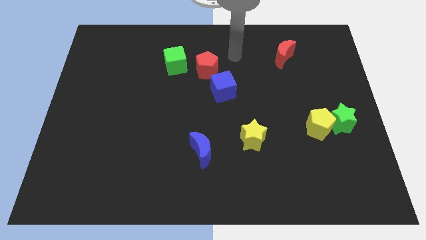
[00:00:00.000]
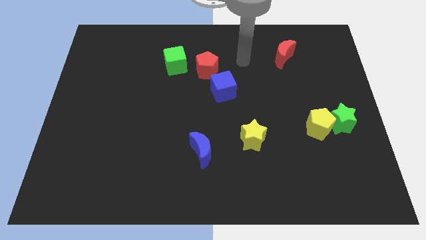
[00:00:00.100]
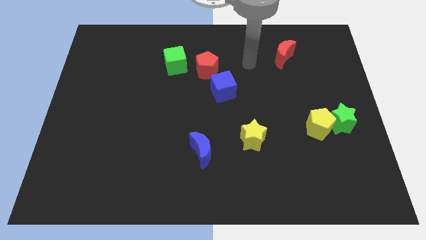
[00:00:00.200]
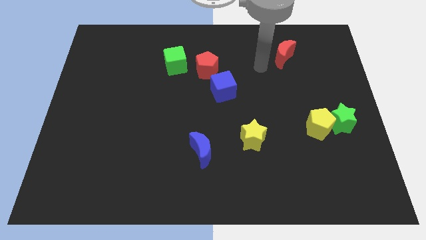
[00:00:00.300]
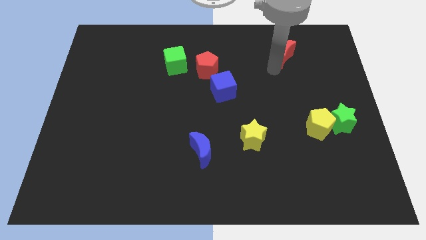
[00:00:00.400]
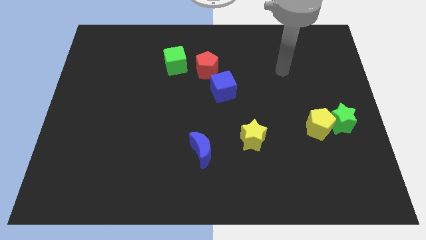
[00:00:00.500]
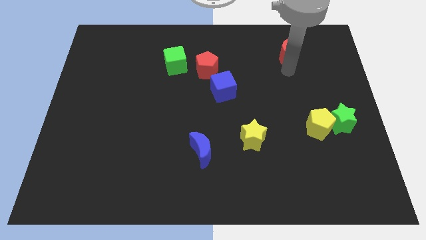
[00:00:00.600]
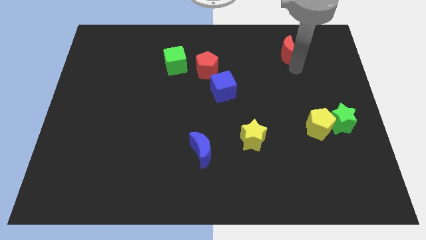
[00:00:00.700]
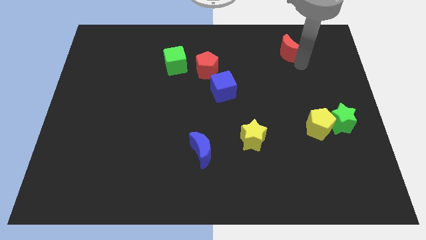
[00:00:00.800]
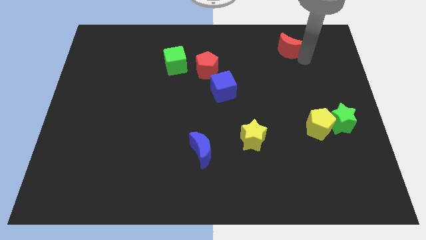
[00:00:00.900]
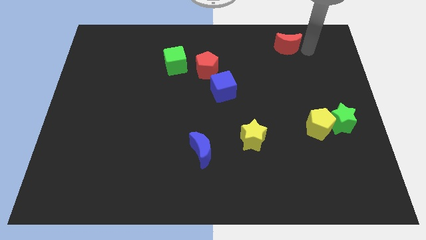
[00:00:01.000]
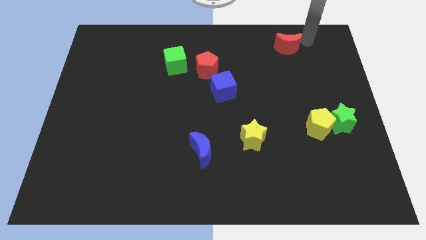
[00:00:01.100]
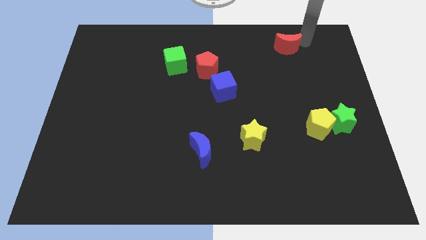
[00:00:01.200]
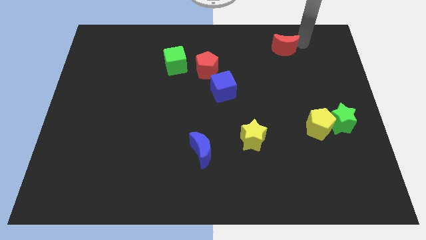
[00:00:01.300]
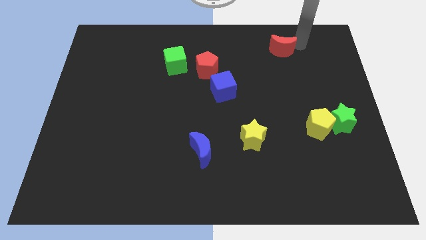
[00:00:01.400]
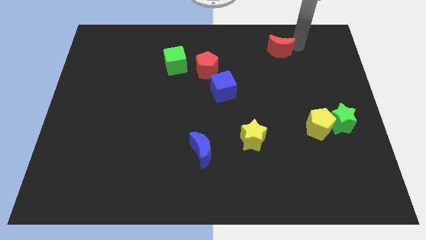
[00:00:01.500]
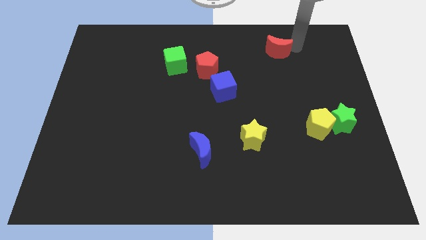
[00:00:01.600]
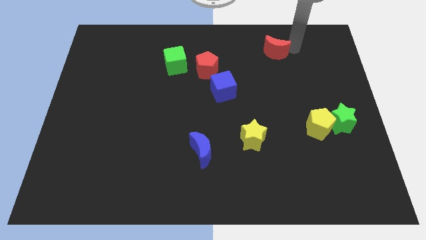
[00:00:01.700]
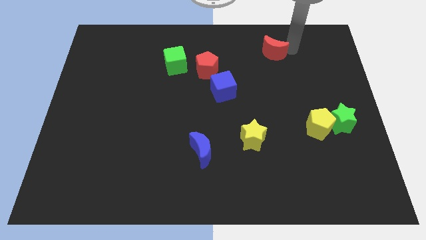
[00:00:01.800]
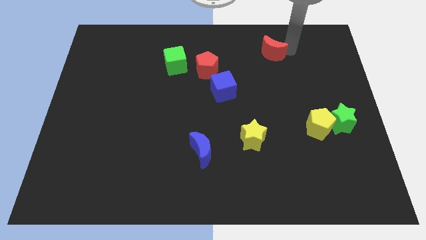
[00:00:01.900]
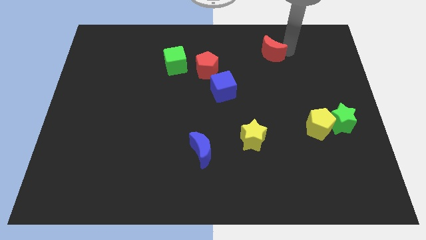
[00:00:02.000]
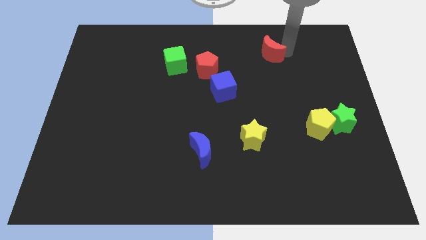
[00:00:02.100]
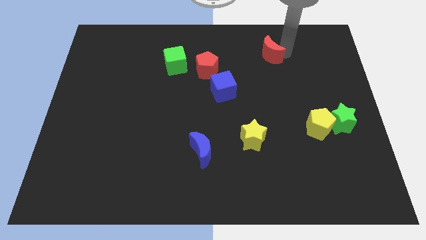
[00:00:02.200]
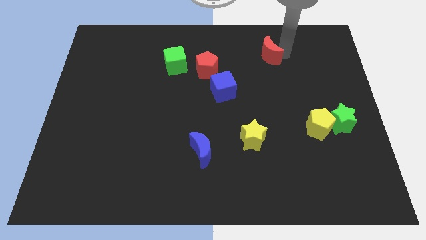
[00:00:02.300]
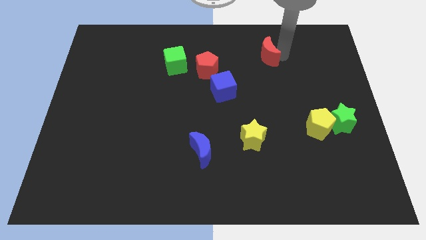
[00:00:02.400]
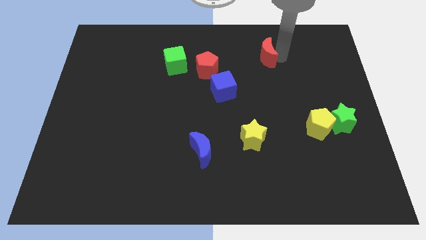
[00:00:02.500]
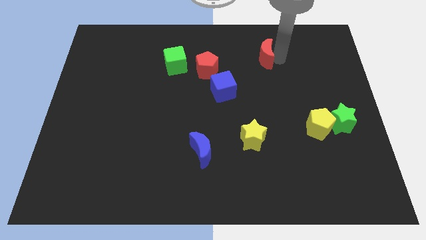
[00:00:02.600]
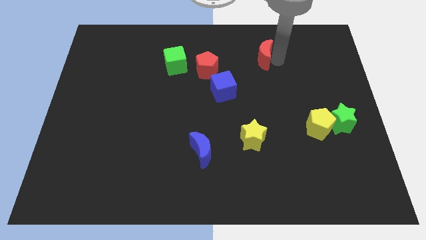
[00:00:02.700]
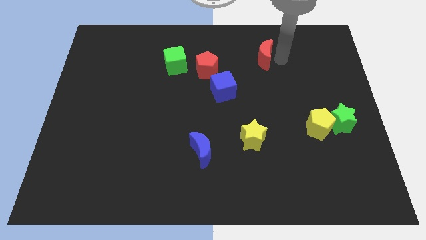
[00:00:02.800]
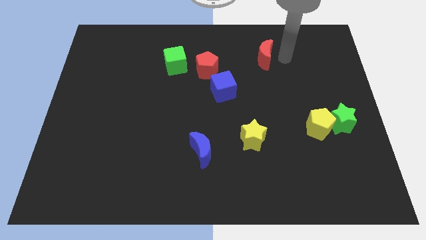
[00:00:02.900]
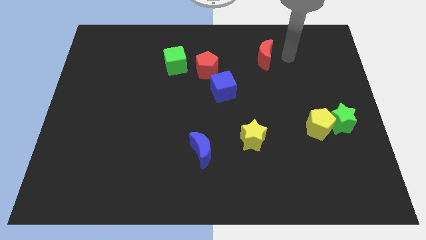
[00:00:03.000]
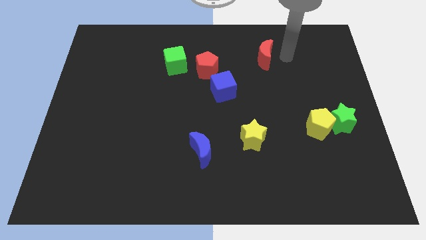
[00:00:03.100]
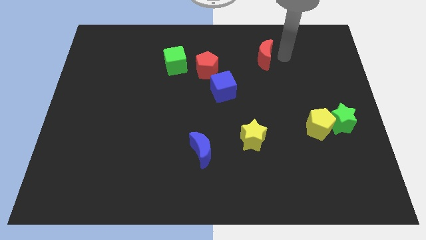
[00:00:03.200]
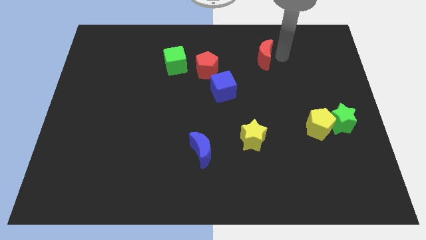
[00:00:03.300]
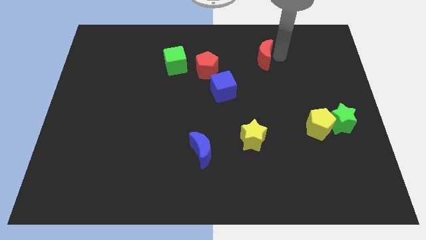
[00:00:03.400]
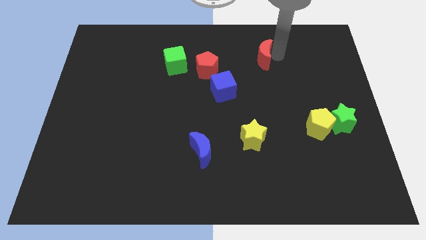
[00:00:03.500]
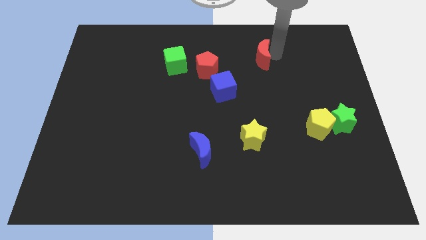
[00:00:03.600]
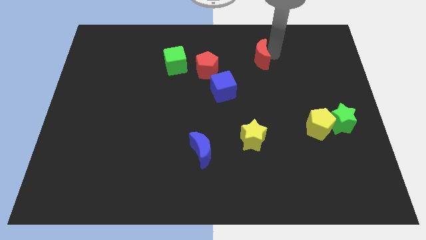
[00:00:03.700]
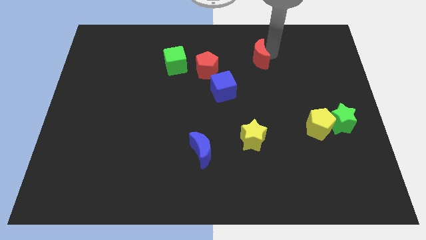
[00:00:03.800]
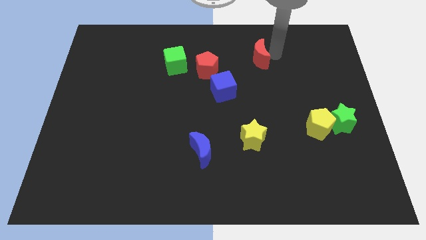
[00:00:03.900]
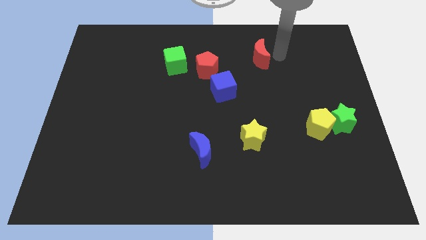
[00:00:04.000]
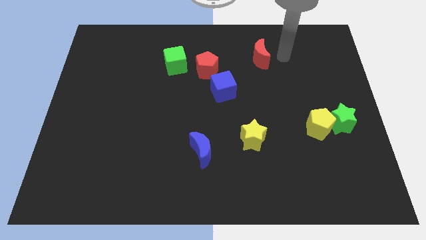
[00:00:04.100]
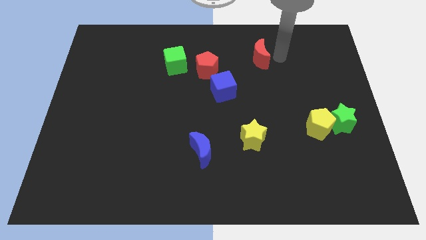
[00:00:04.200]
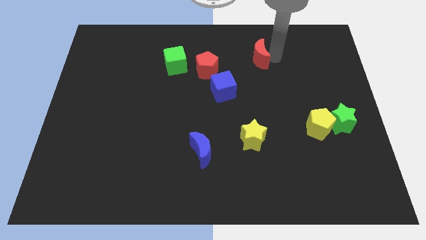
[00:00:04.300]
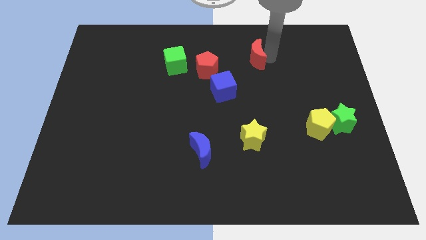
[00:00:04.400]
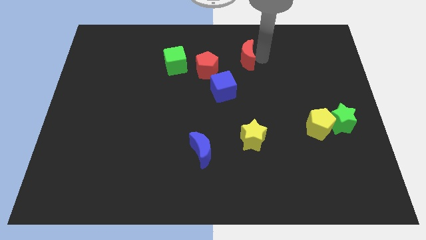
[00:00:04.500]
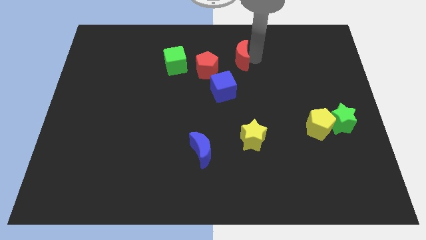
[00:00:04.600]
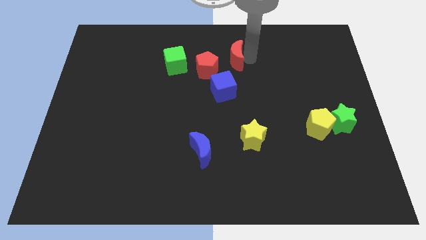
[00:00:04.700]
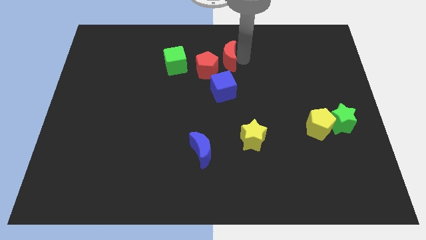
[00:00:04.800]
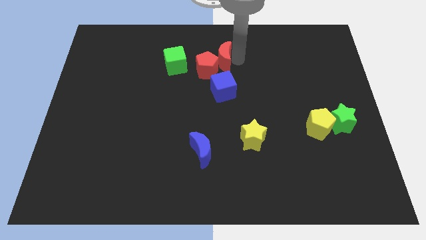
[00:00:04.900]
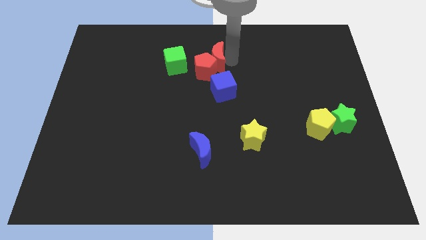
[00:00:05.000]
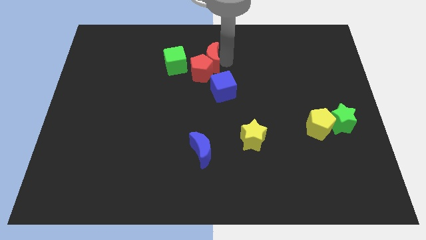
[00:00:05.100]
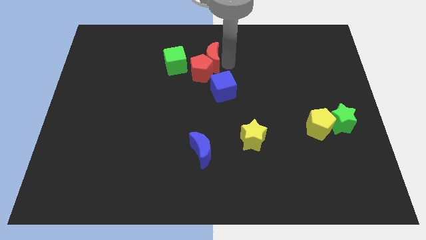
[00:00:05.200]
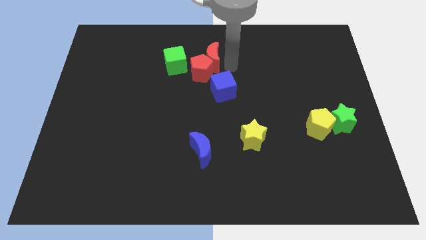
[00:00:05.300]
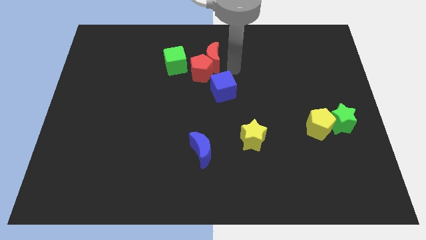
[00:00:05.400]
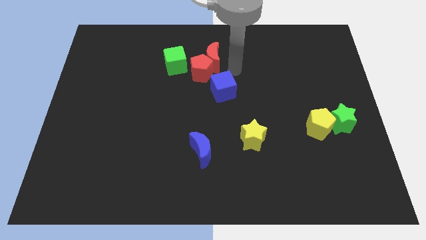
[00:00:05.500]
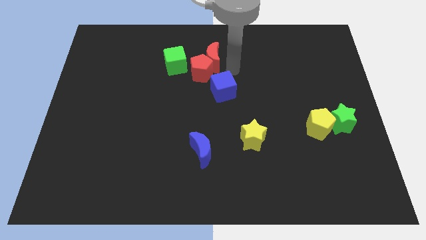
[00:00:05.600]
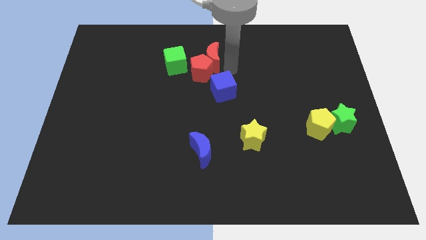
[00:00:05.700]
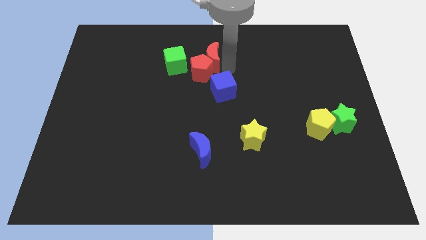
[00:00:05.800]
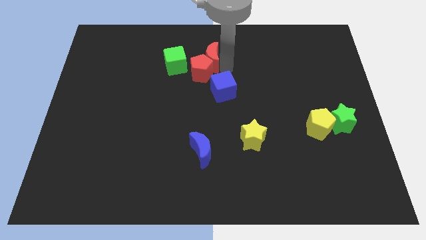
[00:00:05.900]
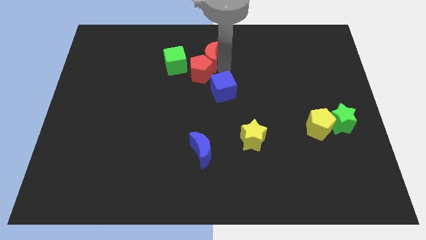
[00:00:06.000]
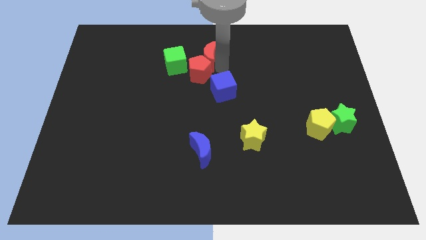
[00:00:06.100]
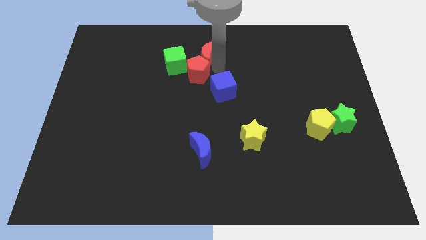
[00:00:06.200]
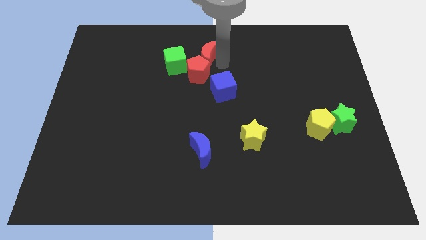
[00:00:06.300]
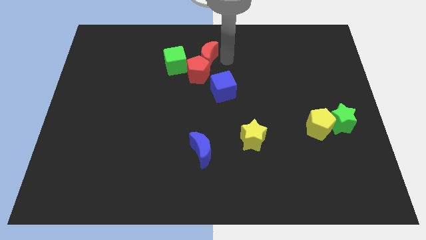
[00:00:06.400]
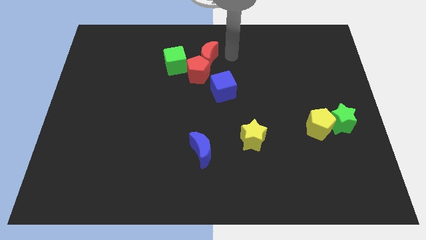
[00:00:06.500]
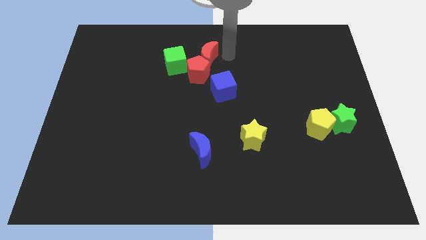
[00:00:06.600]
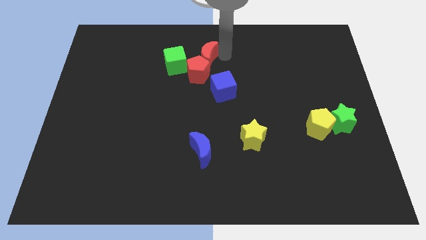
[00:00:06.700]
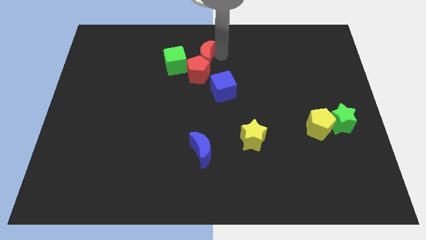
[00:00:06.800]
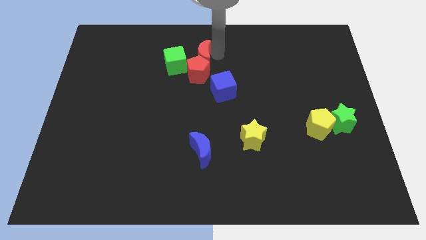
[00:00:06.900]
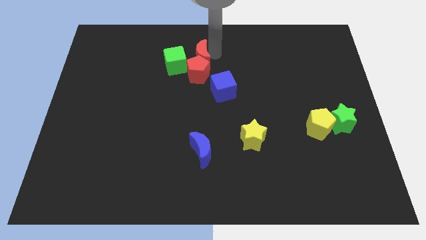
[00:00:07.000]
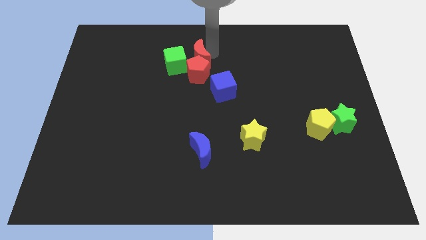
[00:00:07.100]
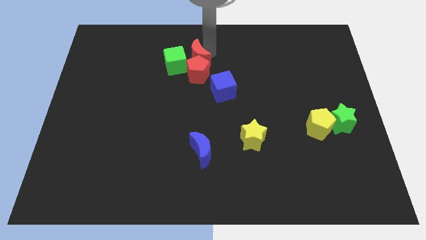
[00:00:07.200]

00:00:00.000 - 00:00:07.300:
put the red moon towards the green cube
